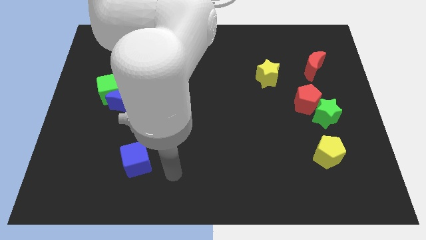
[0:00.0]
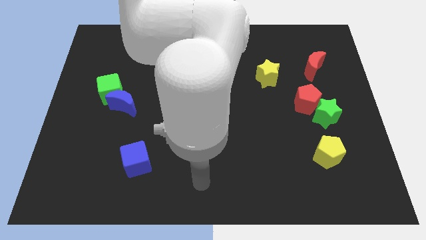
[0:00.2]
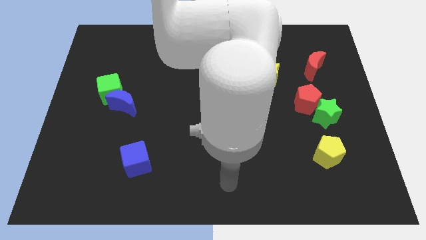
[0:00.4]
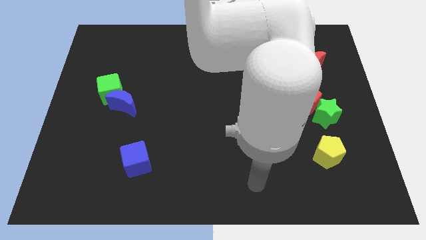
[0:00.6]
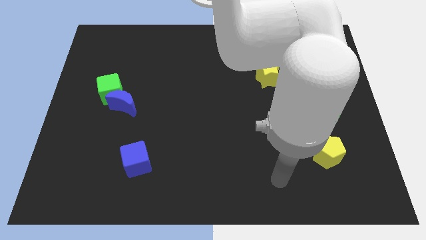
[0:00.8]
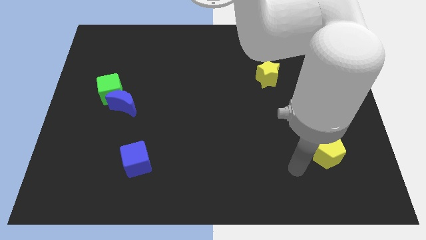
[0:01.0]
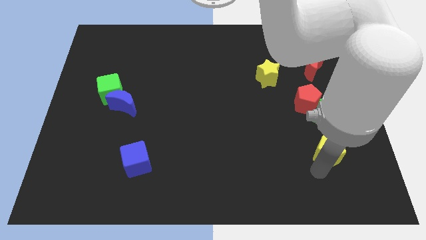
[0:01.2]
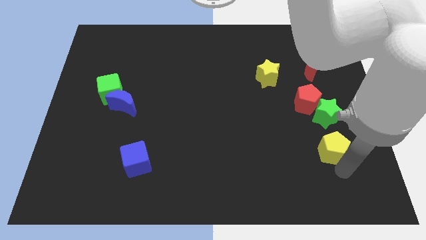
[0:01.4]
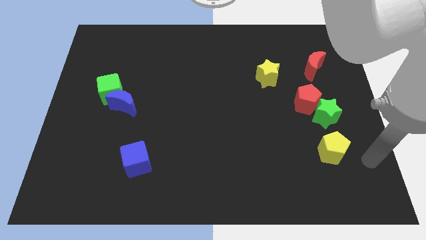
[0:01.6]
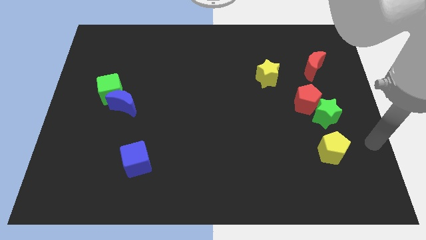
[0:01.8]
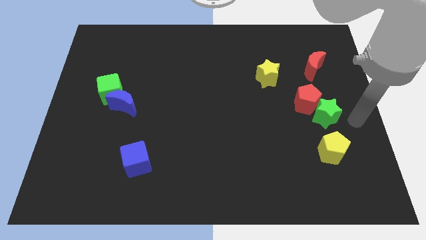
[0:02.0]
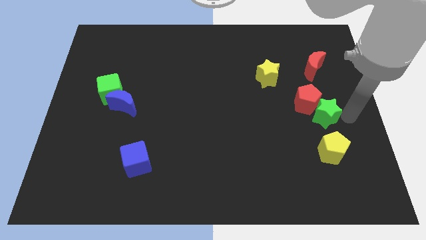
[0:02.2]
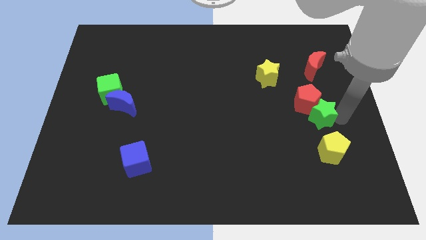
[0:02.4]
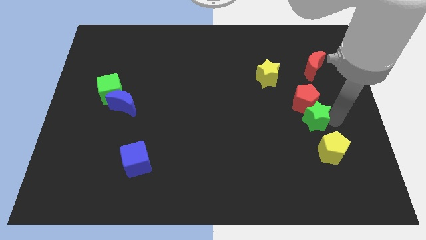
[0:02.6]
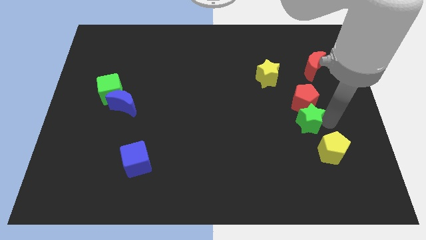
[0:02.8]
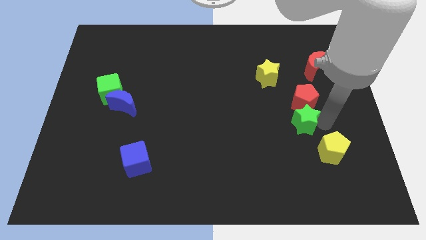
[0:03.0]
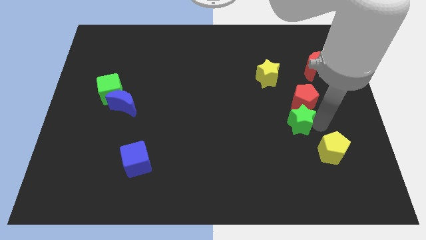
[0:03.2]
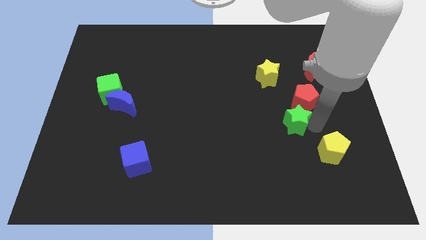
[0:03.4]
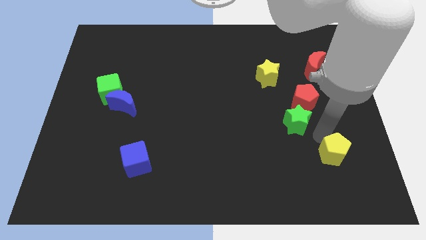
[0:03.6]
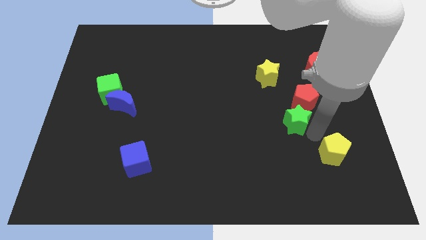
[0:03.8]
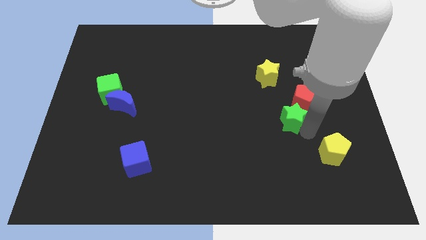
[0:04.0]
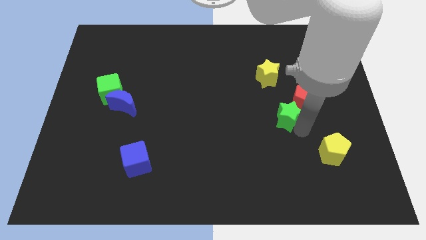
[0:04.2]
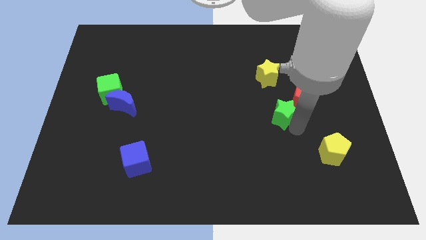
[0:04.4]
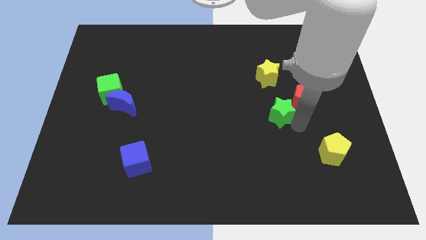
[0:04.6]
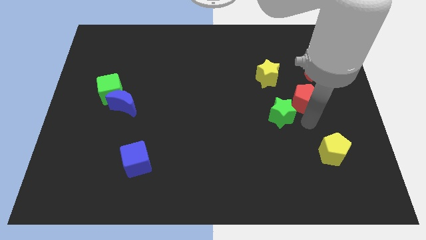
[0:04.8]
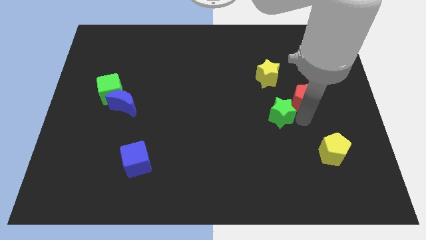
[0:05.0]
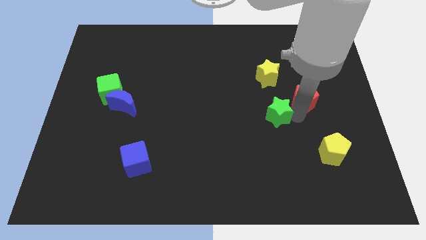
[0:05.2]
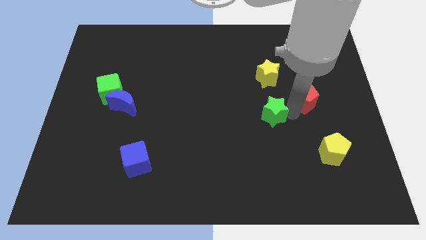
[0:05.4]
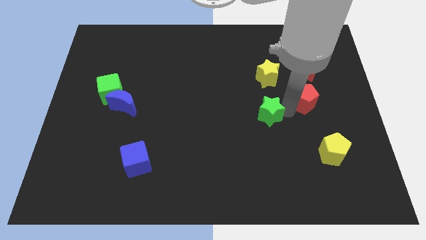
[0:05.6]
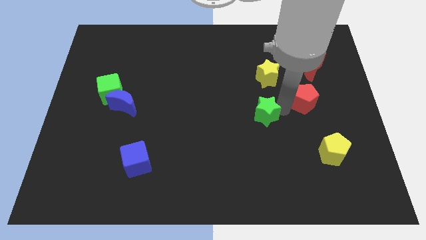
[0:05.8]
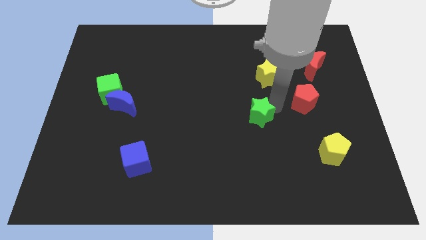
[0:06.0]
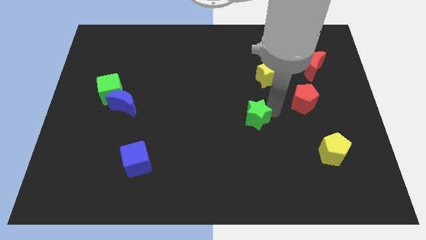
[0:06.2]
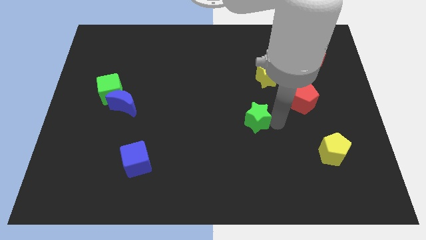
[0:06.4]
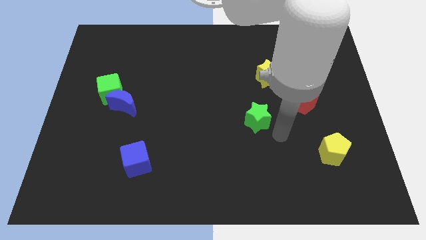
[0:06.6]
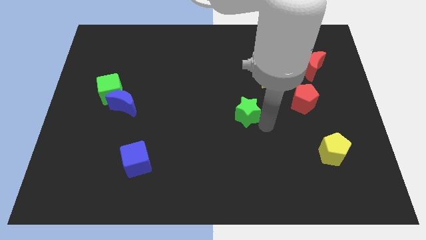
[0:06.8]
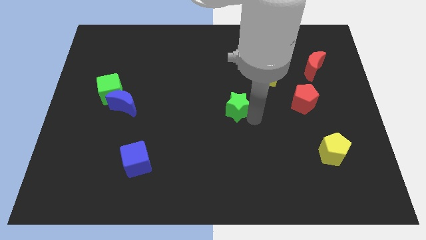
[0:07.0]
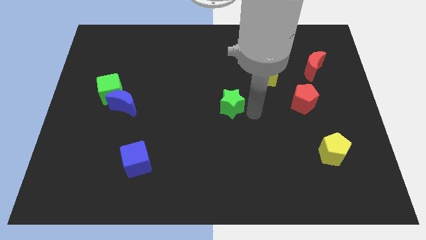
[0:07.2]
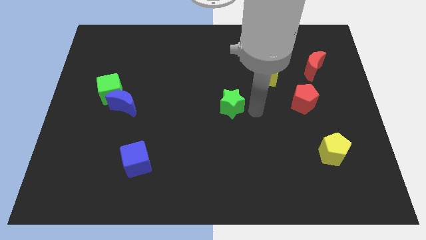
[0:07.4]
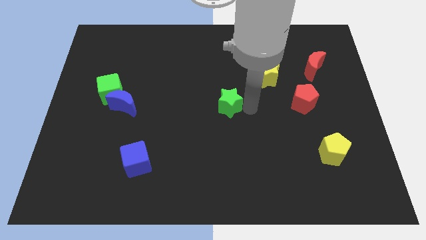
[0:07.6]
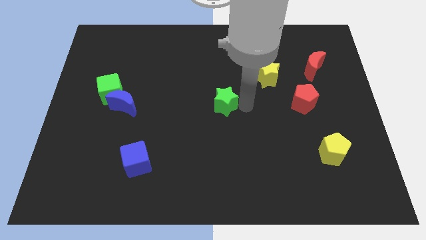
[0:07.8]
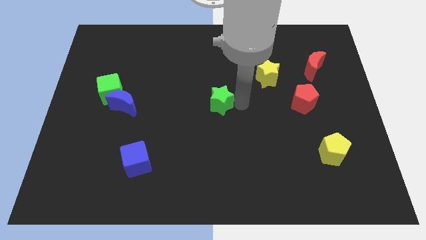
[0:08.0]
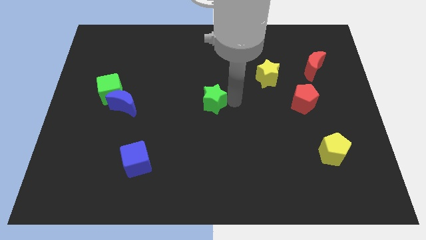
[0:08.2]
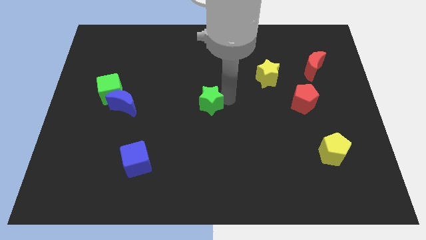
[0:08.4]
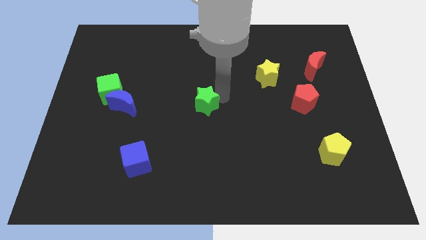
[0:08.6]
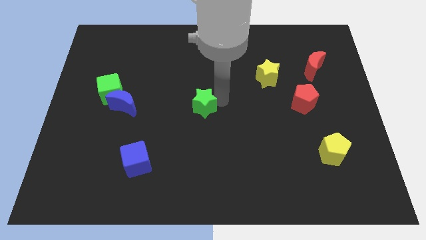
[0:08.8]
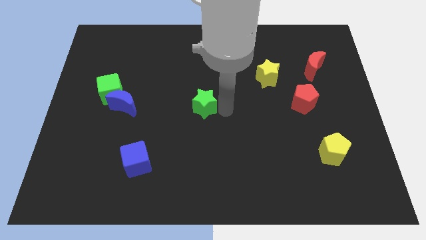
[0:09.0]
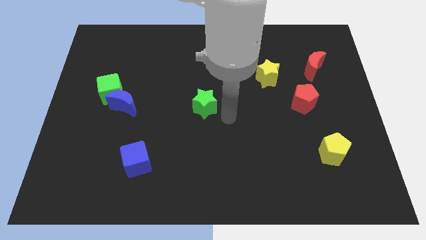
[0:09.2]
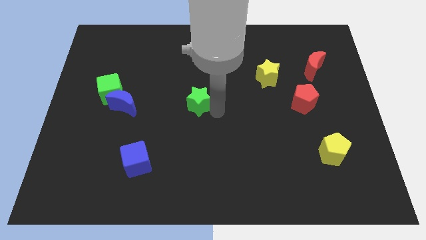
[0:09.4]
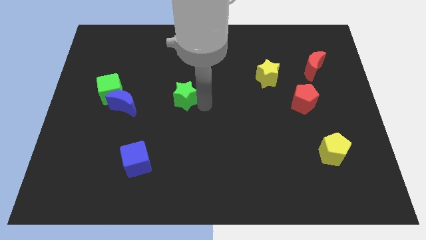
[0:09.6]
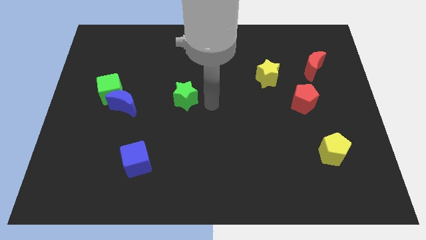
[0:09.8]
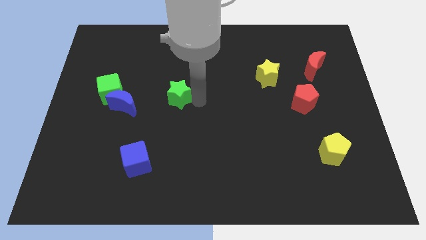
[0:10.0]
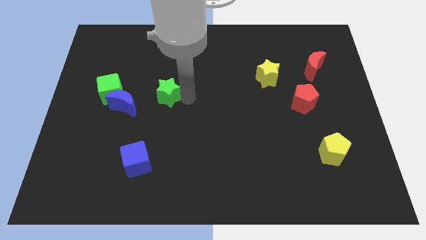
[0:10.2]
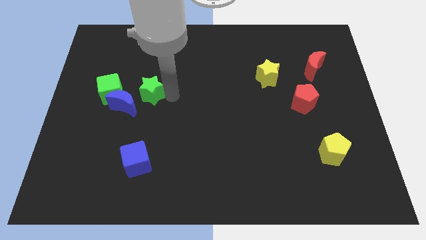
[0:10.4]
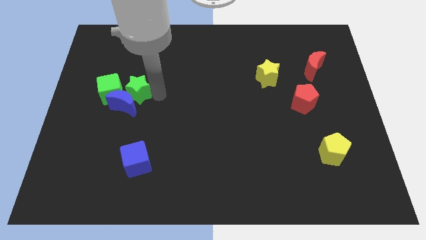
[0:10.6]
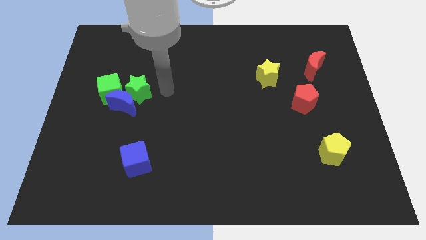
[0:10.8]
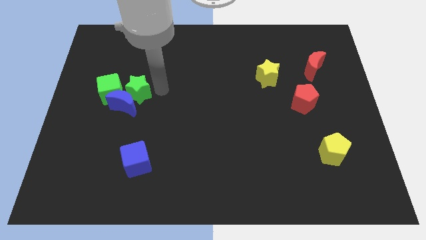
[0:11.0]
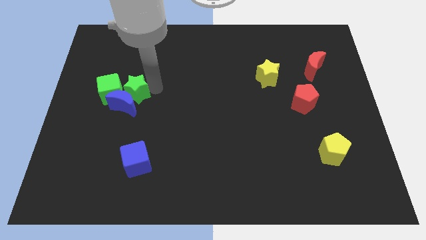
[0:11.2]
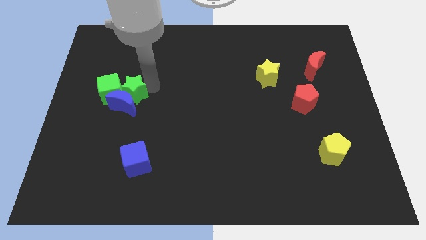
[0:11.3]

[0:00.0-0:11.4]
put the green star close to the green cube

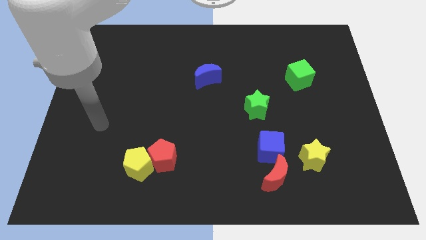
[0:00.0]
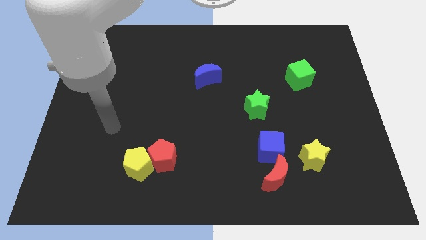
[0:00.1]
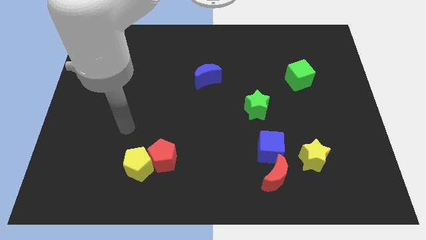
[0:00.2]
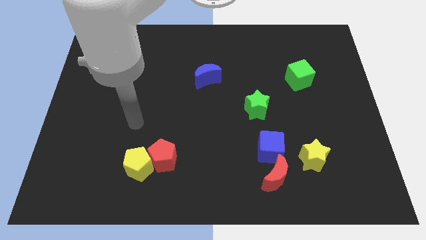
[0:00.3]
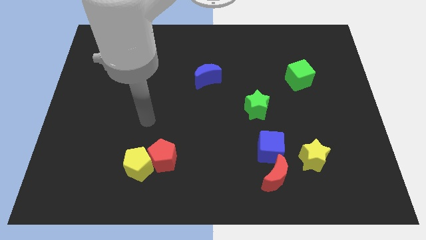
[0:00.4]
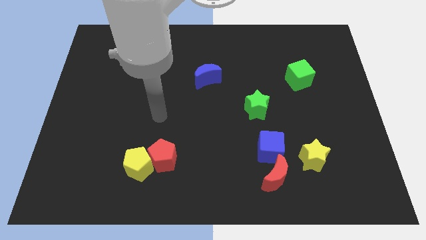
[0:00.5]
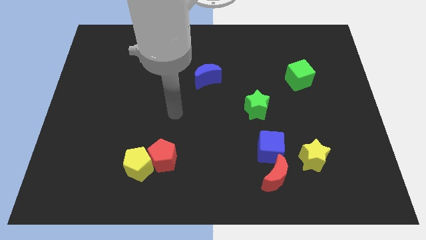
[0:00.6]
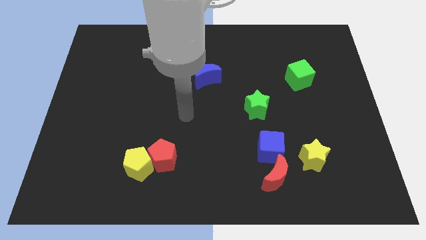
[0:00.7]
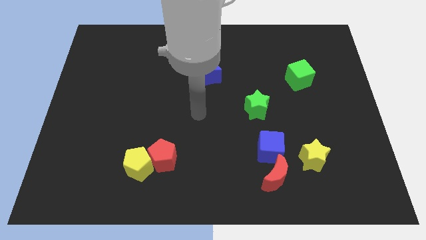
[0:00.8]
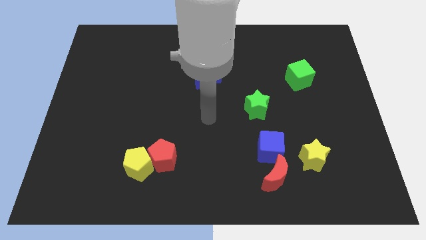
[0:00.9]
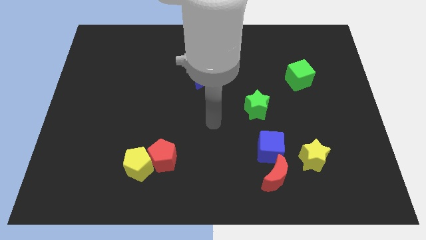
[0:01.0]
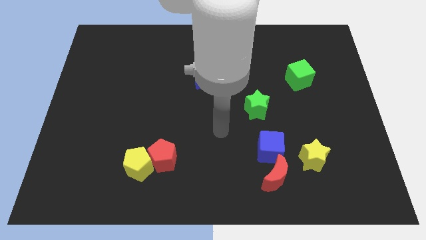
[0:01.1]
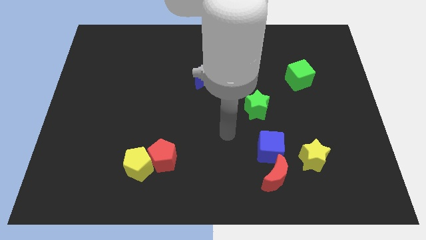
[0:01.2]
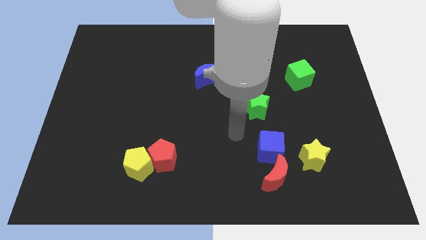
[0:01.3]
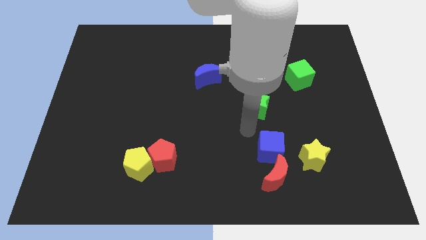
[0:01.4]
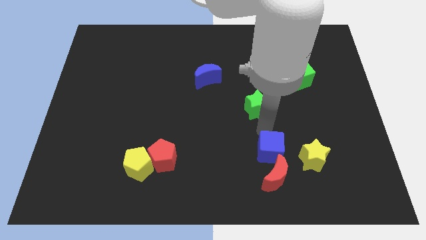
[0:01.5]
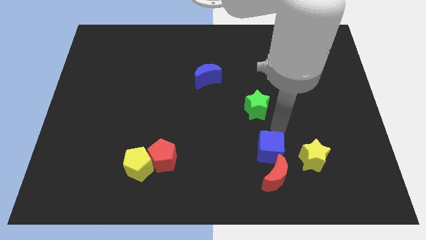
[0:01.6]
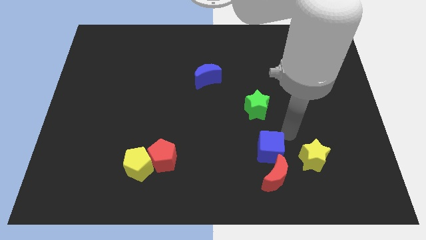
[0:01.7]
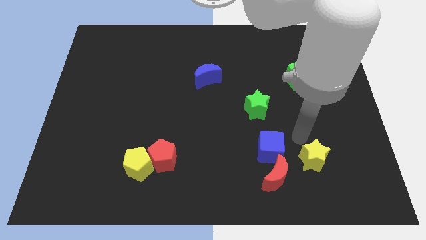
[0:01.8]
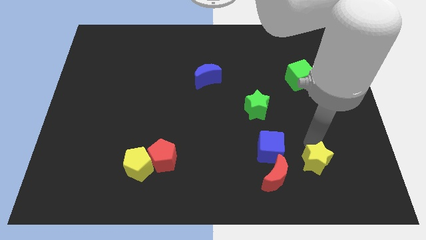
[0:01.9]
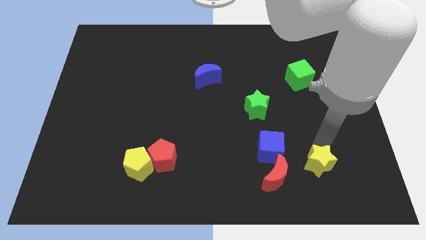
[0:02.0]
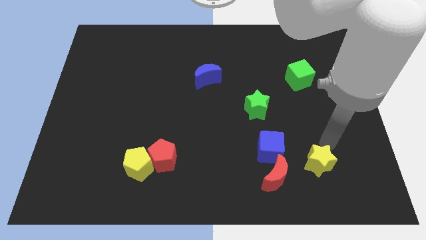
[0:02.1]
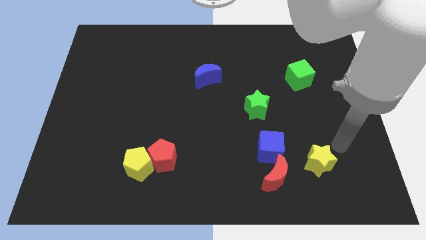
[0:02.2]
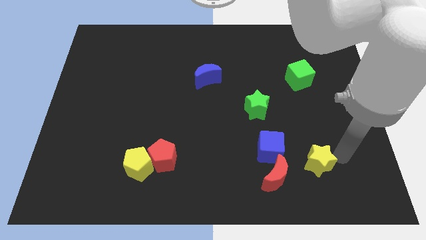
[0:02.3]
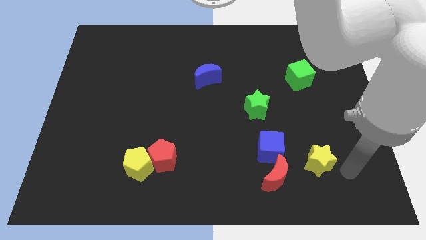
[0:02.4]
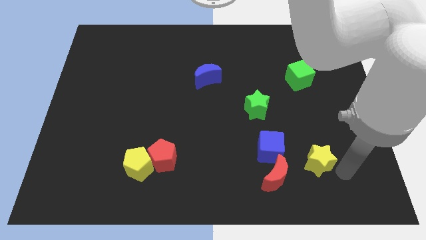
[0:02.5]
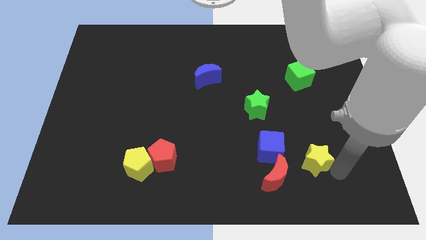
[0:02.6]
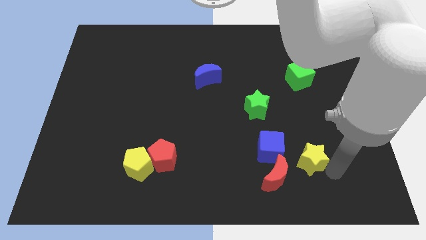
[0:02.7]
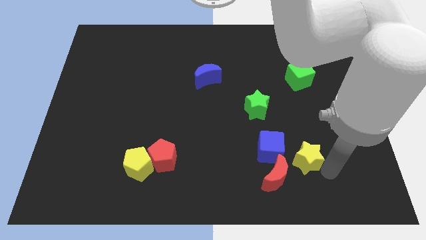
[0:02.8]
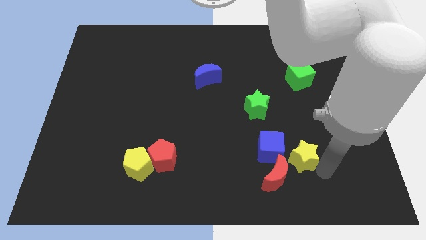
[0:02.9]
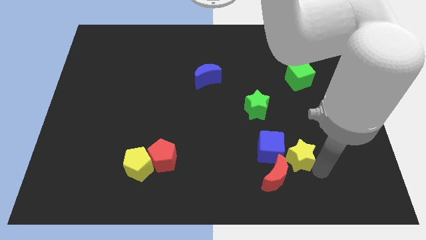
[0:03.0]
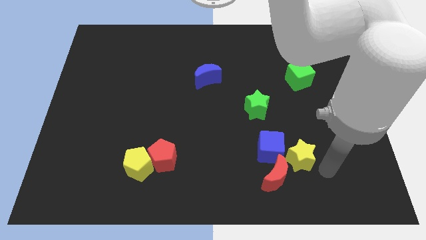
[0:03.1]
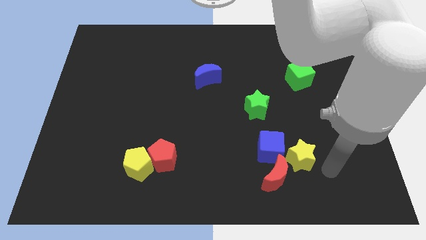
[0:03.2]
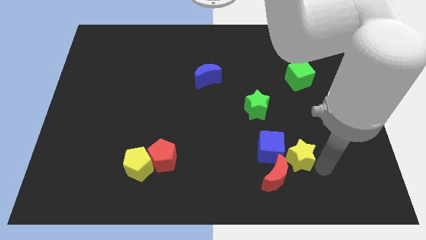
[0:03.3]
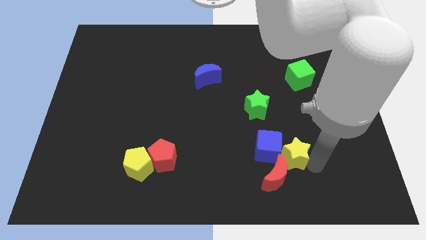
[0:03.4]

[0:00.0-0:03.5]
push the yellow star towards the blue cube
